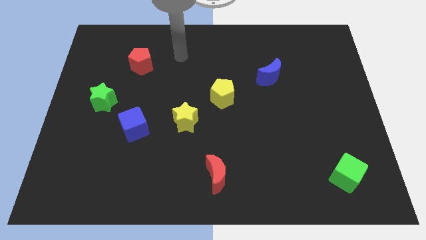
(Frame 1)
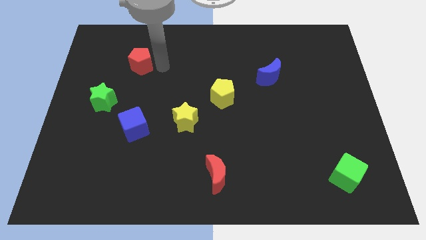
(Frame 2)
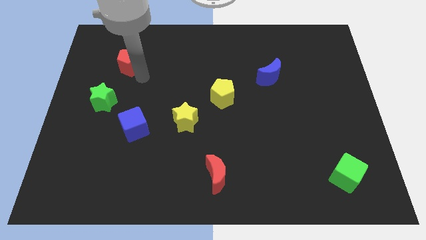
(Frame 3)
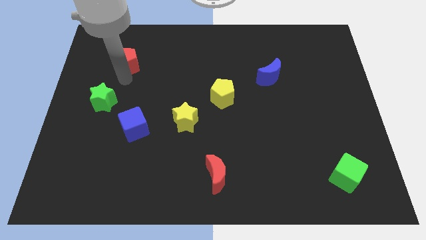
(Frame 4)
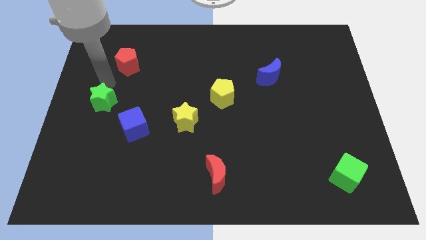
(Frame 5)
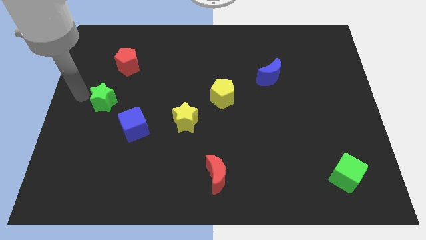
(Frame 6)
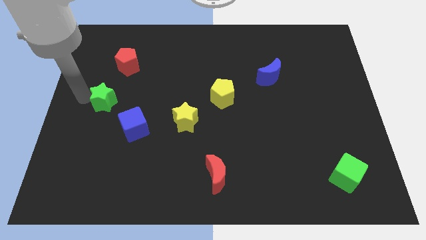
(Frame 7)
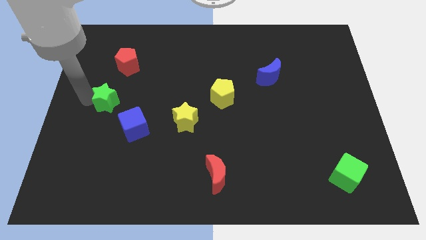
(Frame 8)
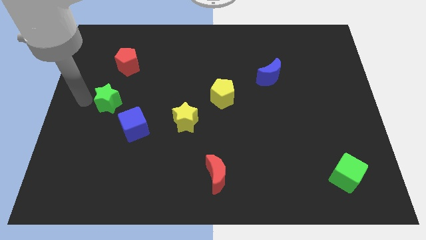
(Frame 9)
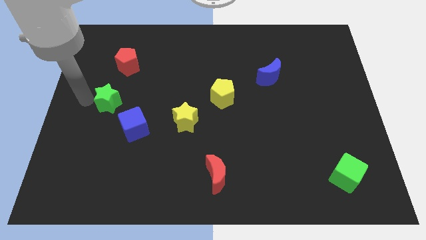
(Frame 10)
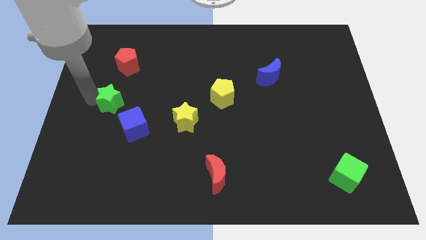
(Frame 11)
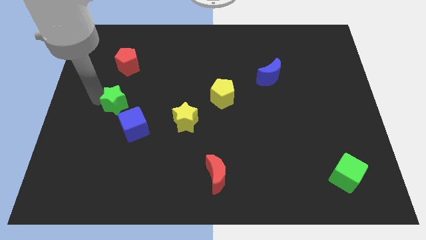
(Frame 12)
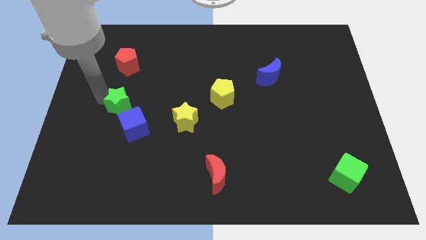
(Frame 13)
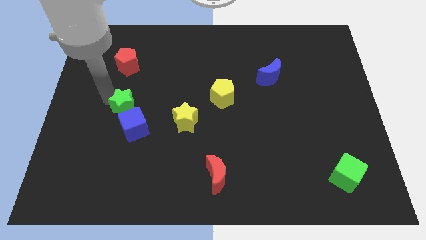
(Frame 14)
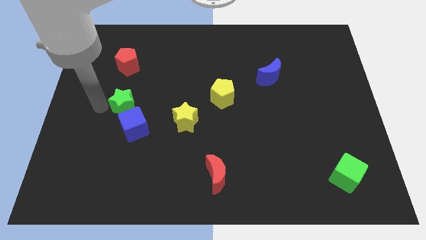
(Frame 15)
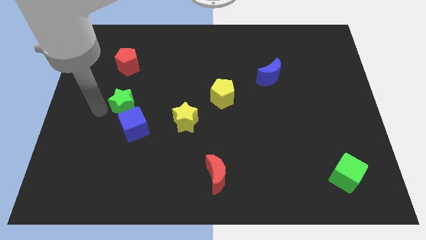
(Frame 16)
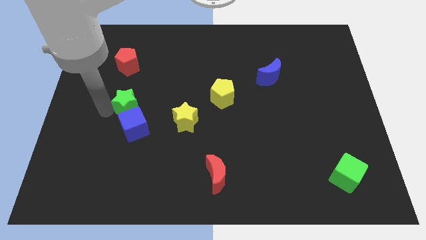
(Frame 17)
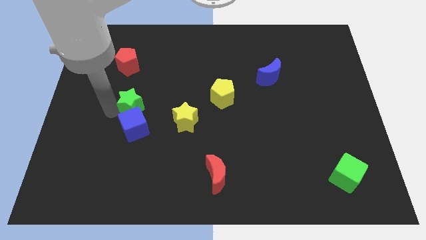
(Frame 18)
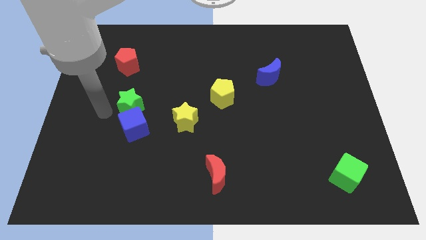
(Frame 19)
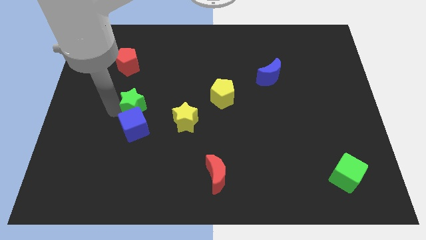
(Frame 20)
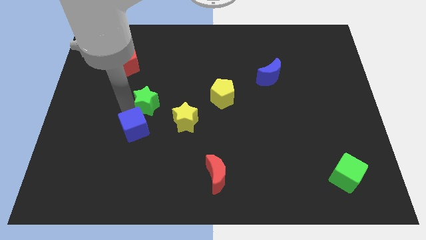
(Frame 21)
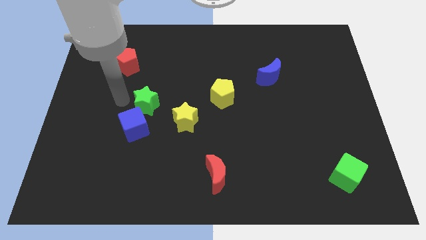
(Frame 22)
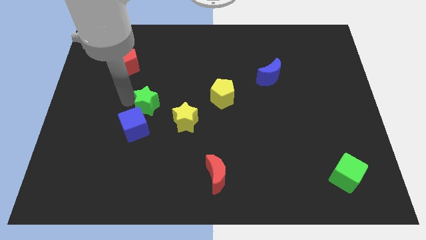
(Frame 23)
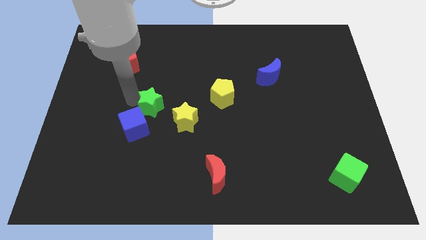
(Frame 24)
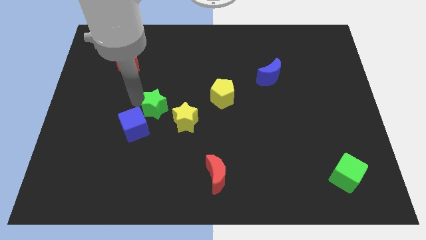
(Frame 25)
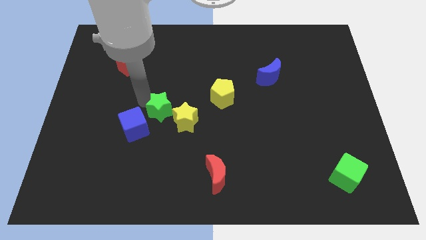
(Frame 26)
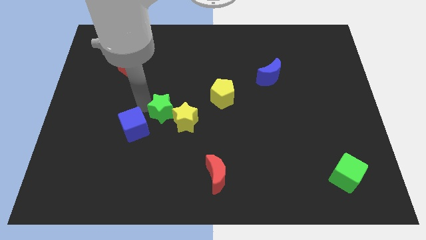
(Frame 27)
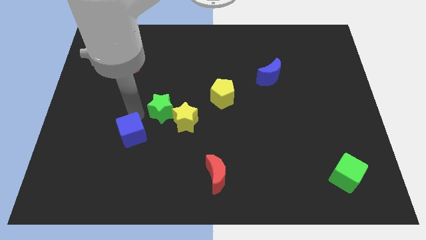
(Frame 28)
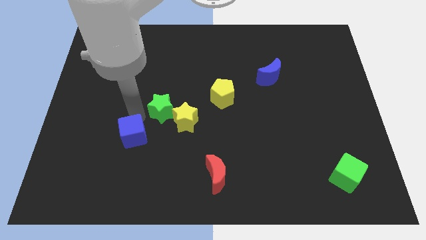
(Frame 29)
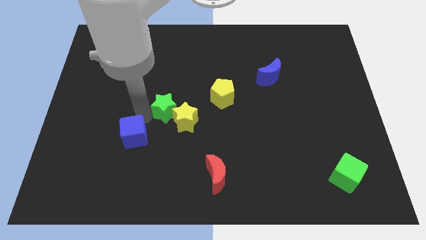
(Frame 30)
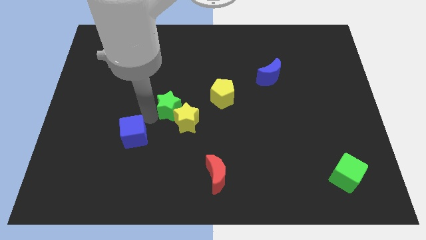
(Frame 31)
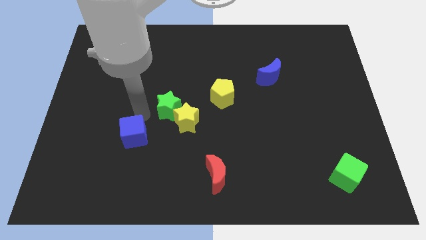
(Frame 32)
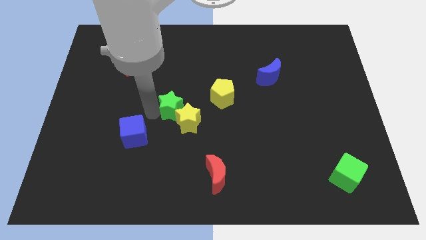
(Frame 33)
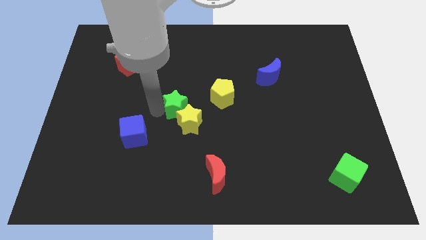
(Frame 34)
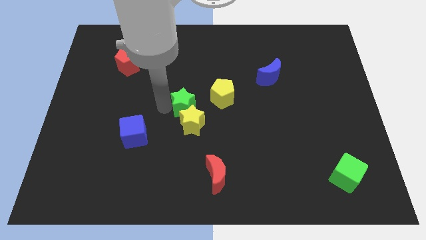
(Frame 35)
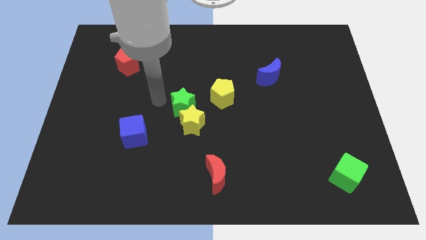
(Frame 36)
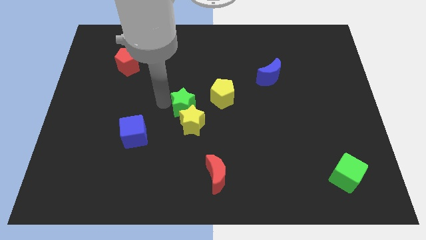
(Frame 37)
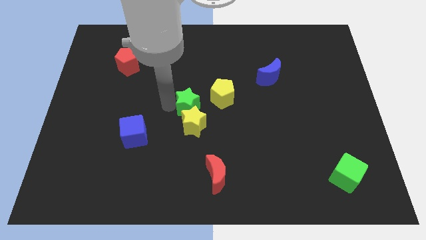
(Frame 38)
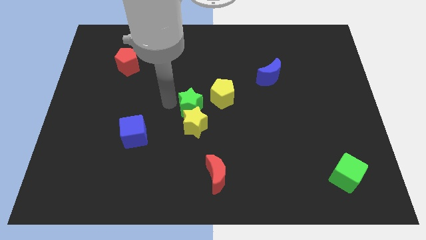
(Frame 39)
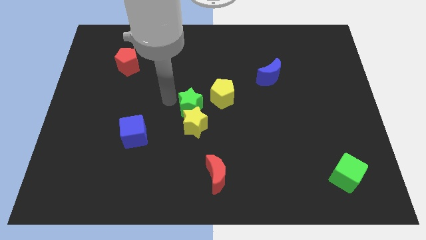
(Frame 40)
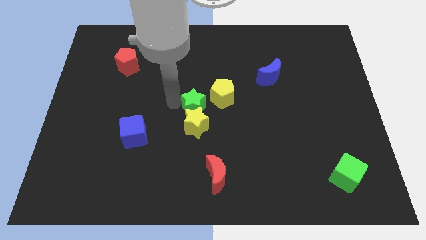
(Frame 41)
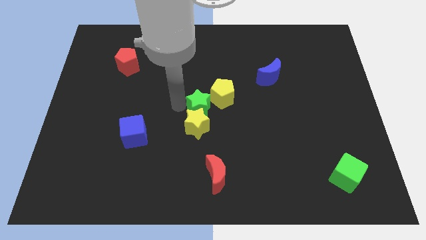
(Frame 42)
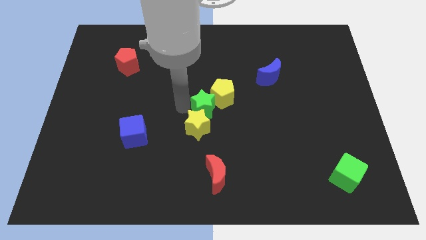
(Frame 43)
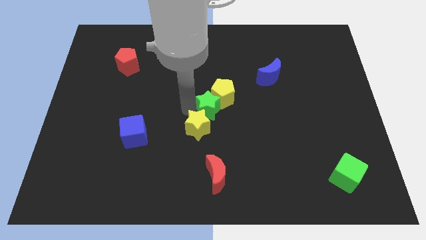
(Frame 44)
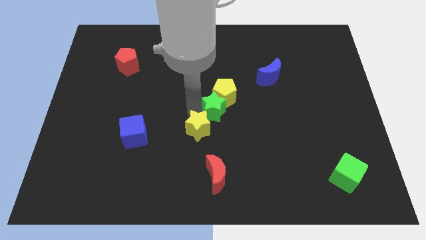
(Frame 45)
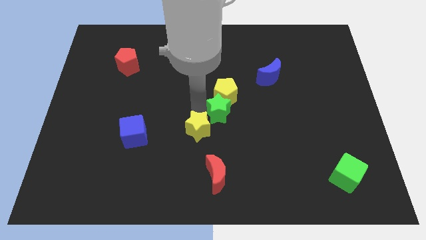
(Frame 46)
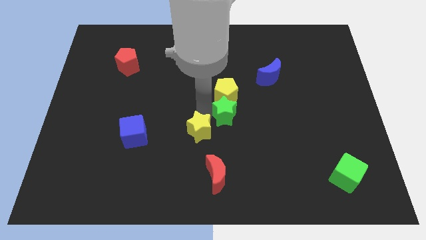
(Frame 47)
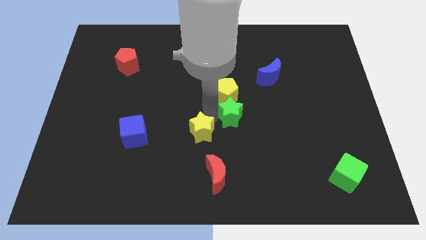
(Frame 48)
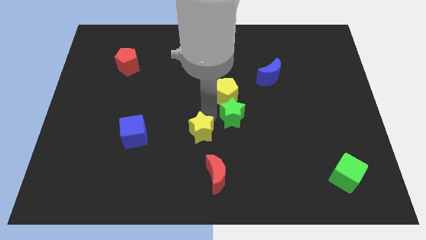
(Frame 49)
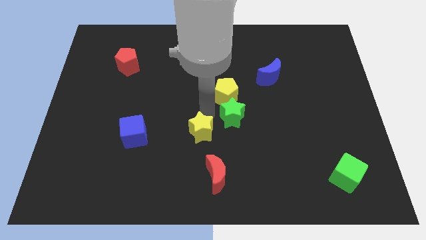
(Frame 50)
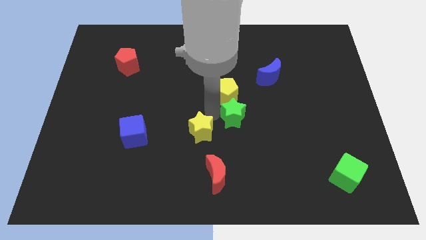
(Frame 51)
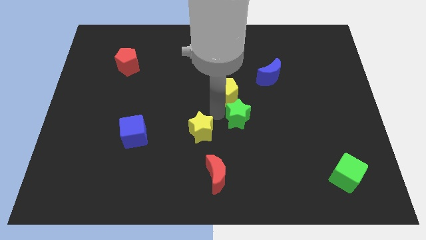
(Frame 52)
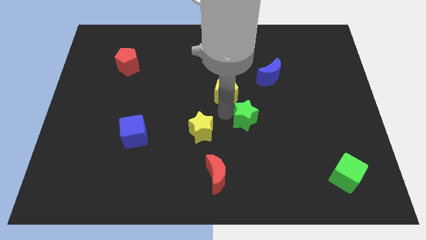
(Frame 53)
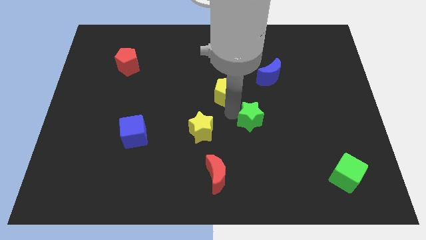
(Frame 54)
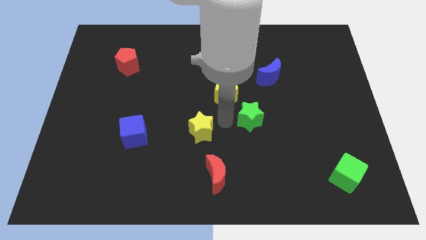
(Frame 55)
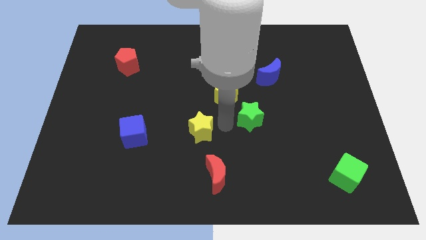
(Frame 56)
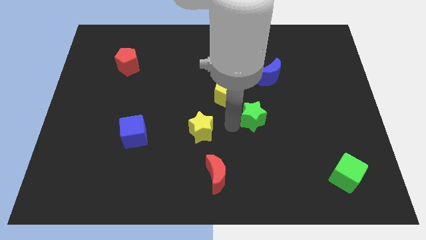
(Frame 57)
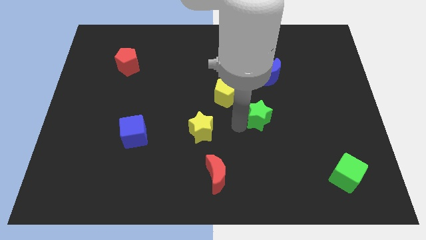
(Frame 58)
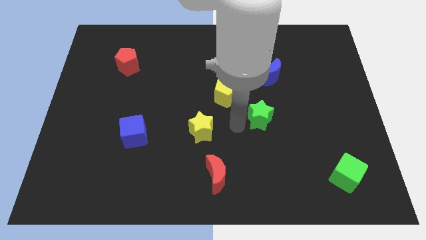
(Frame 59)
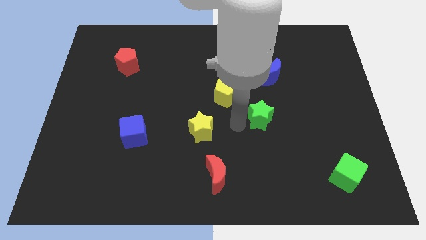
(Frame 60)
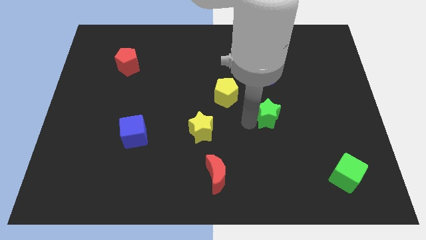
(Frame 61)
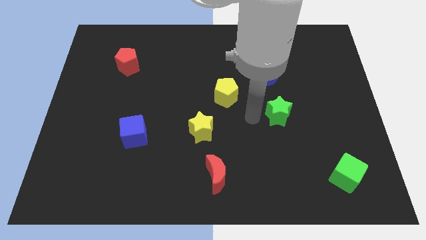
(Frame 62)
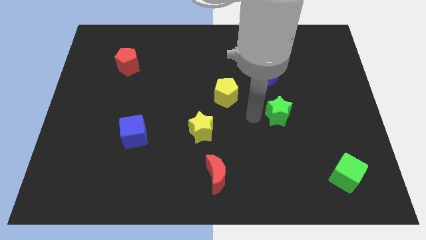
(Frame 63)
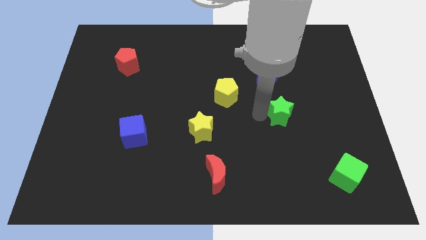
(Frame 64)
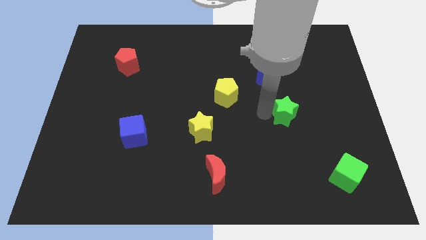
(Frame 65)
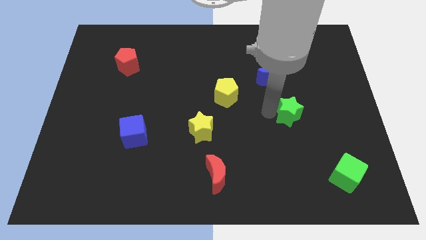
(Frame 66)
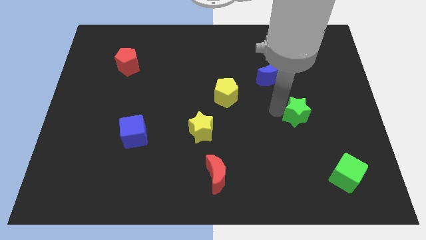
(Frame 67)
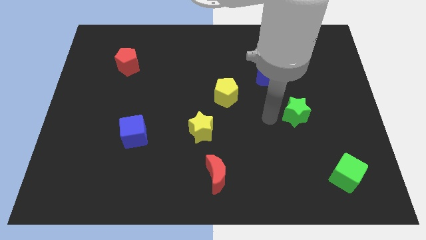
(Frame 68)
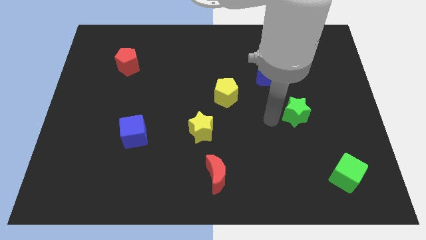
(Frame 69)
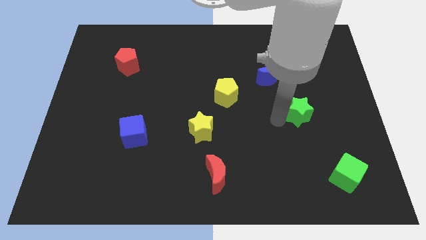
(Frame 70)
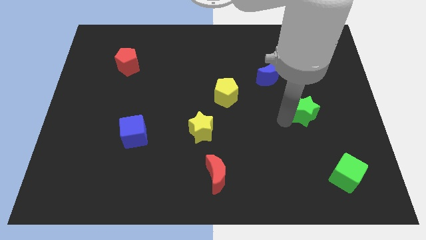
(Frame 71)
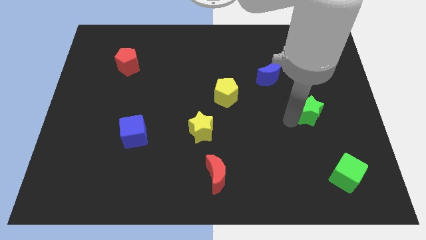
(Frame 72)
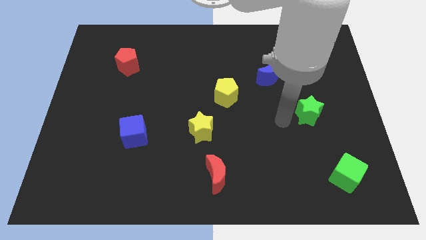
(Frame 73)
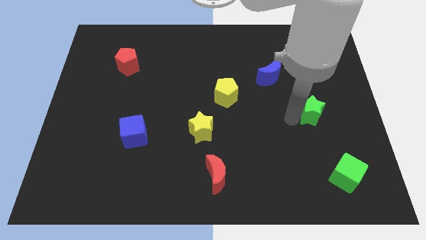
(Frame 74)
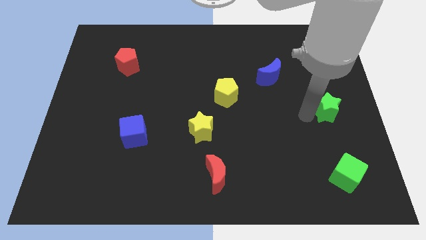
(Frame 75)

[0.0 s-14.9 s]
move the green star to the center right

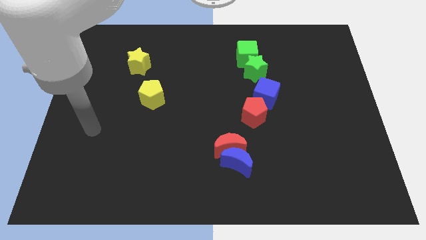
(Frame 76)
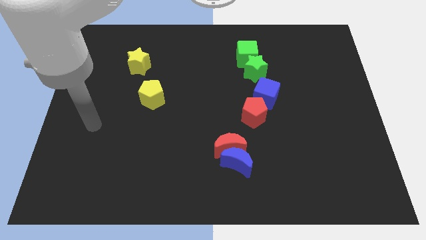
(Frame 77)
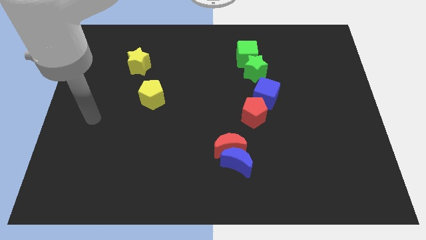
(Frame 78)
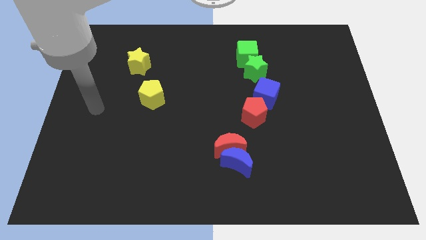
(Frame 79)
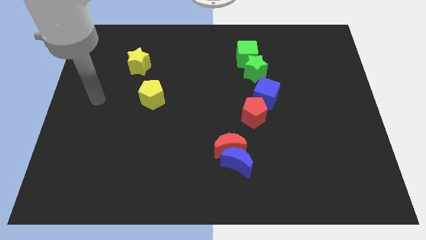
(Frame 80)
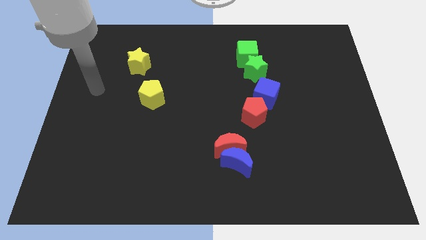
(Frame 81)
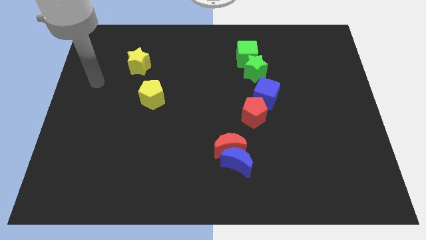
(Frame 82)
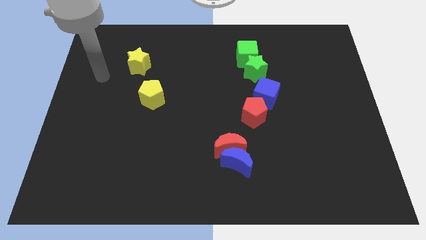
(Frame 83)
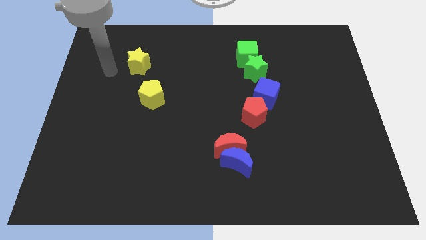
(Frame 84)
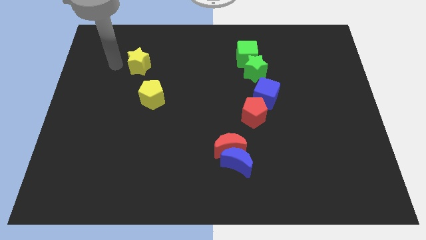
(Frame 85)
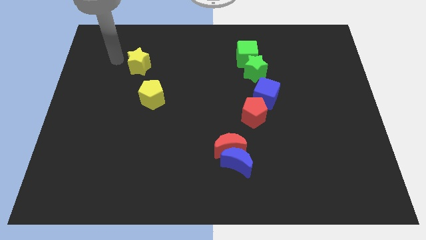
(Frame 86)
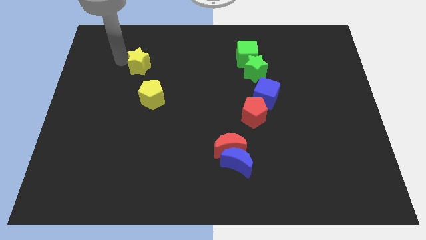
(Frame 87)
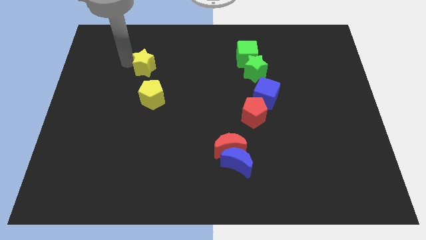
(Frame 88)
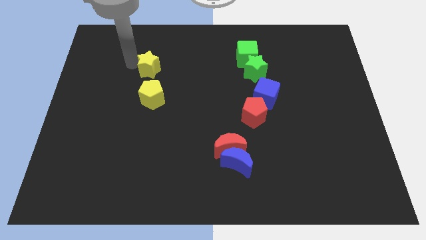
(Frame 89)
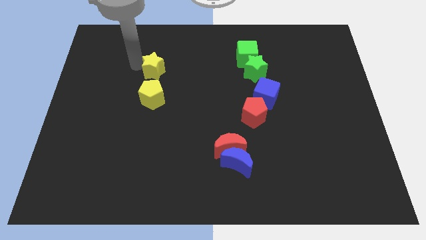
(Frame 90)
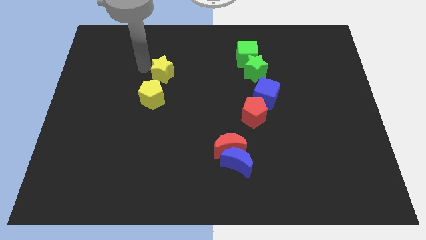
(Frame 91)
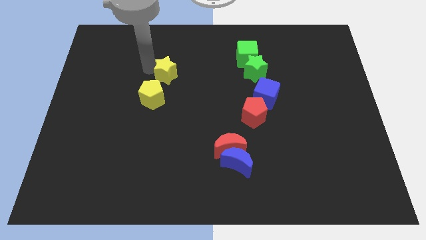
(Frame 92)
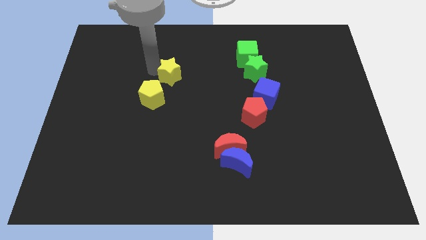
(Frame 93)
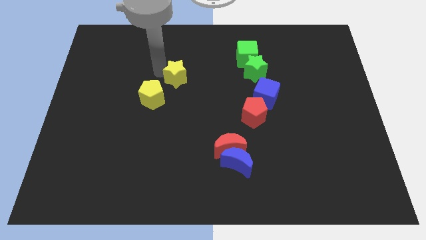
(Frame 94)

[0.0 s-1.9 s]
push the yellow star to the middle
